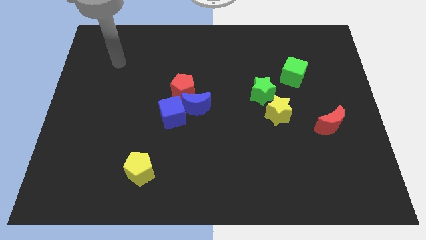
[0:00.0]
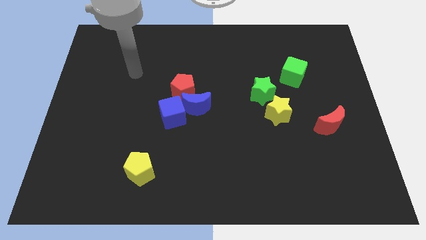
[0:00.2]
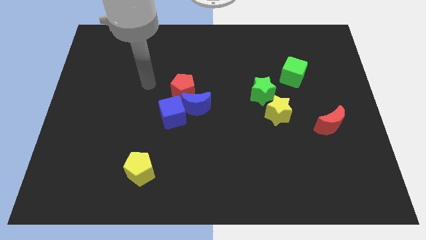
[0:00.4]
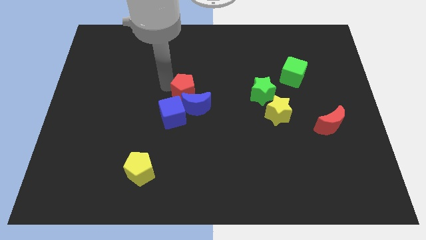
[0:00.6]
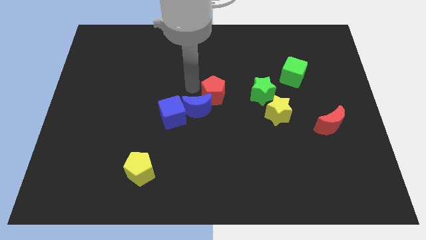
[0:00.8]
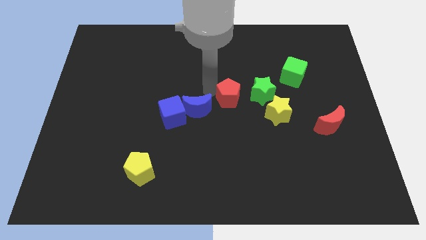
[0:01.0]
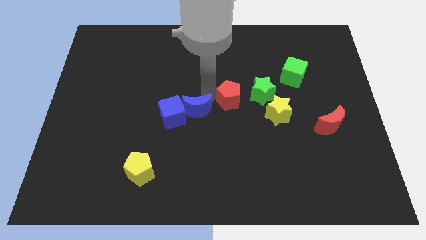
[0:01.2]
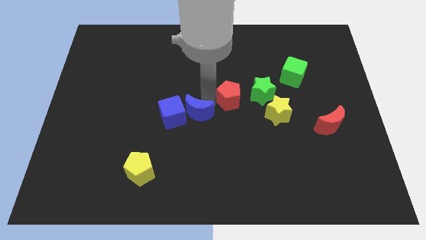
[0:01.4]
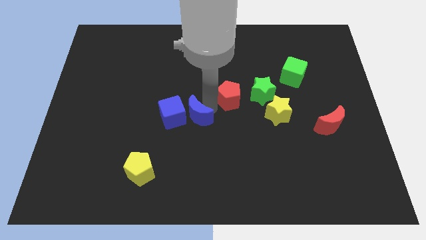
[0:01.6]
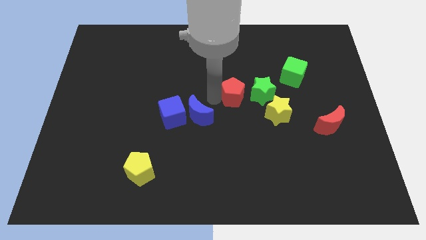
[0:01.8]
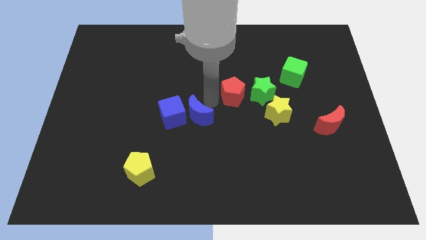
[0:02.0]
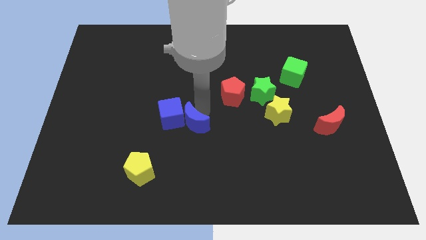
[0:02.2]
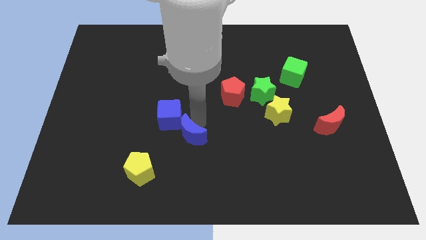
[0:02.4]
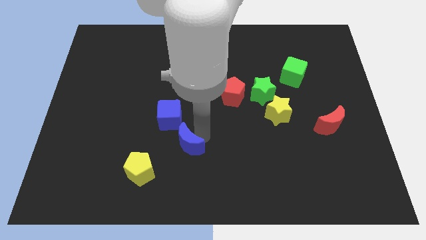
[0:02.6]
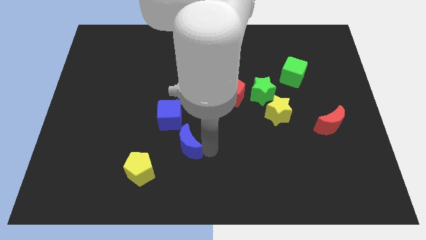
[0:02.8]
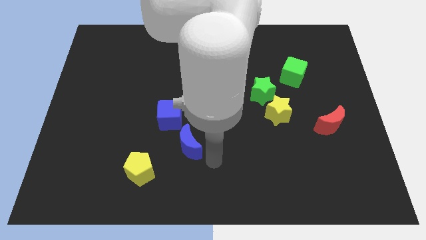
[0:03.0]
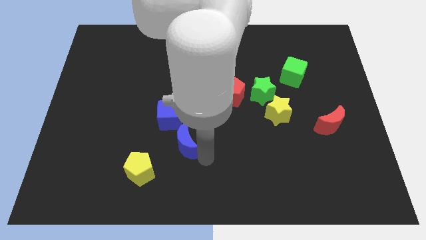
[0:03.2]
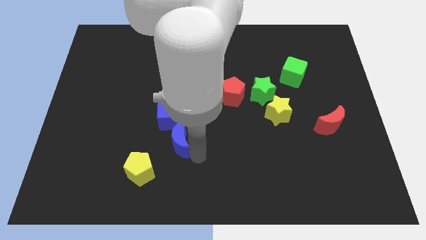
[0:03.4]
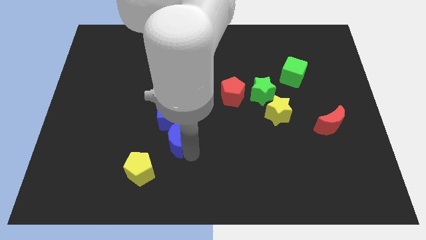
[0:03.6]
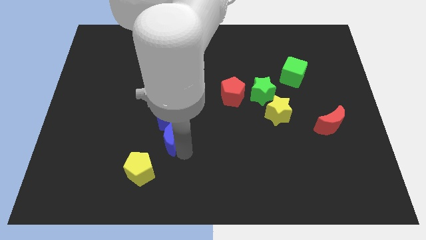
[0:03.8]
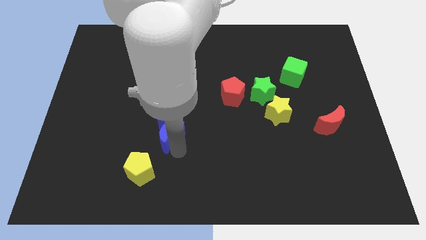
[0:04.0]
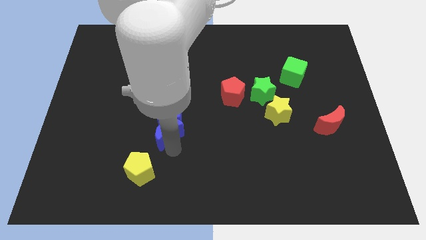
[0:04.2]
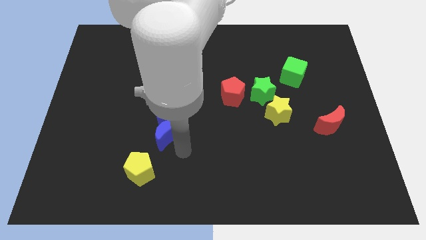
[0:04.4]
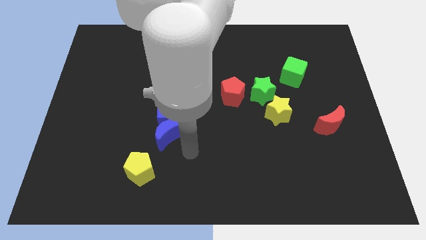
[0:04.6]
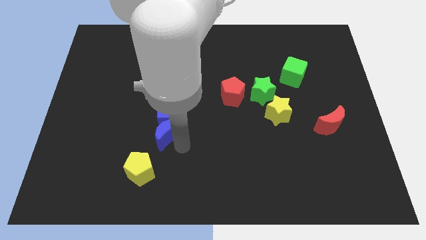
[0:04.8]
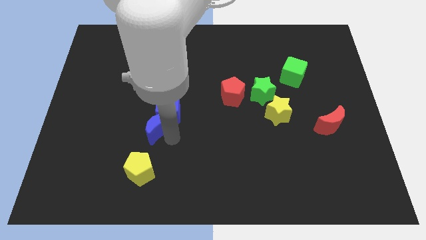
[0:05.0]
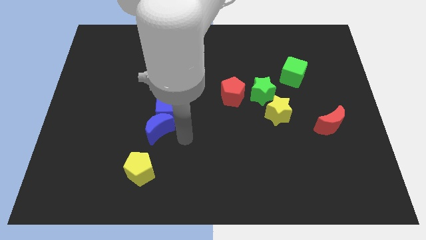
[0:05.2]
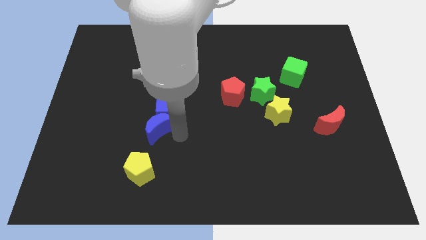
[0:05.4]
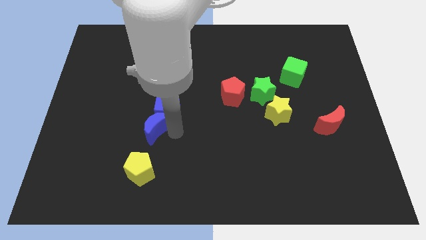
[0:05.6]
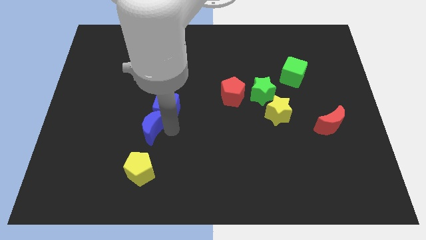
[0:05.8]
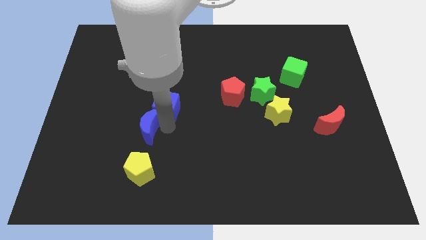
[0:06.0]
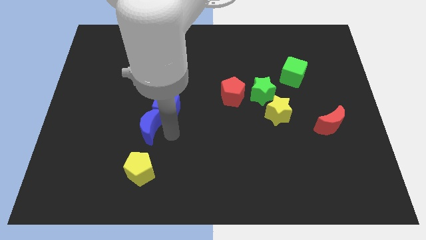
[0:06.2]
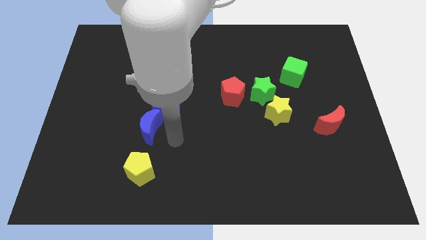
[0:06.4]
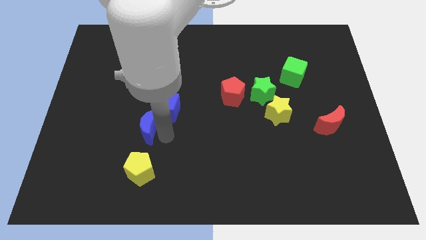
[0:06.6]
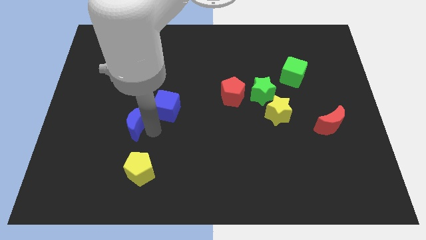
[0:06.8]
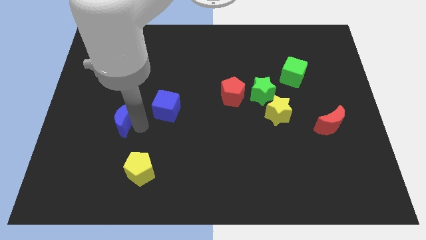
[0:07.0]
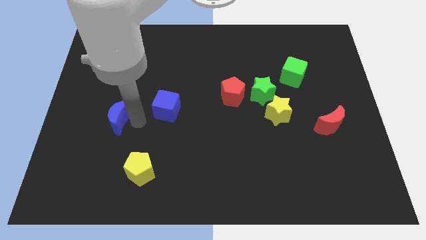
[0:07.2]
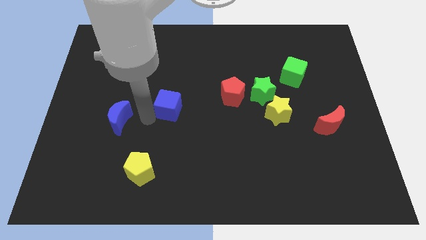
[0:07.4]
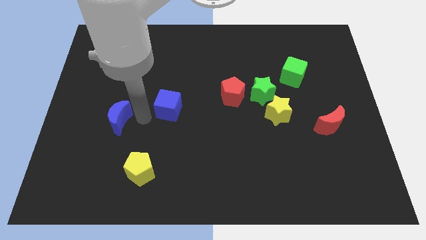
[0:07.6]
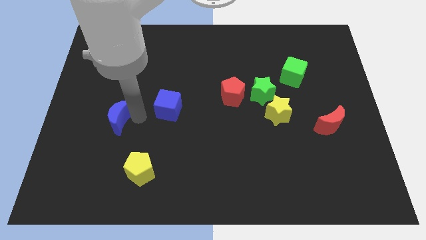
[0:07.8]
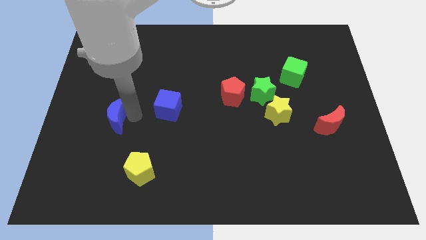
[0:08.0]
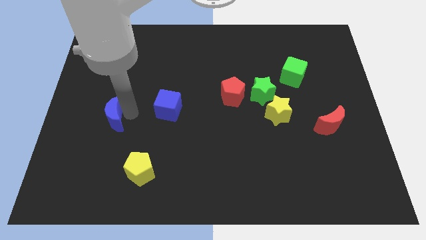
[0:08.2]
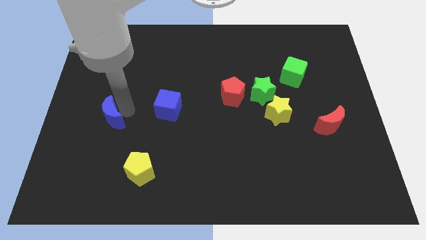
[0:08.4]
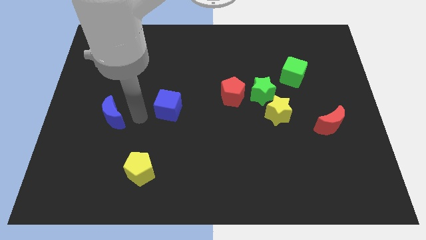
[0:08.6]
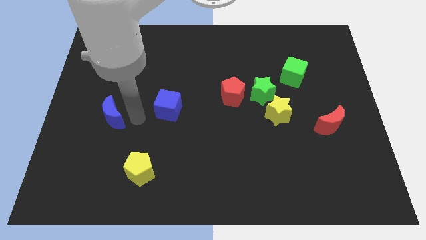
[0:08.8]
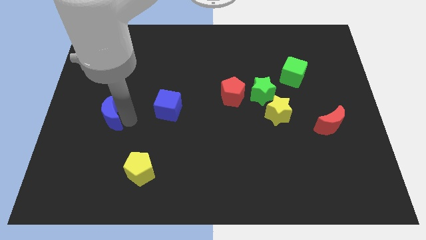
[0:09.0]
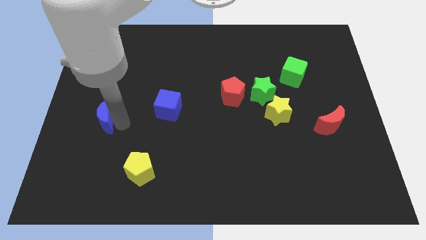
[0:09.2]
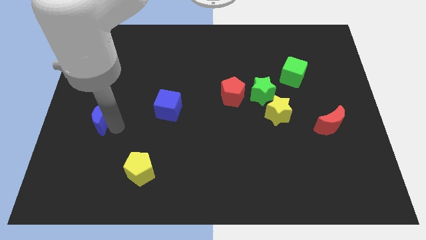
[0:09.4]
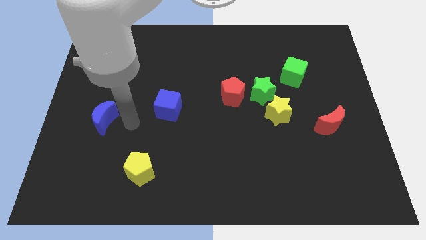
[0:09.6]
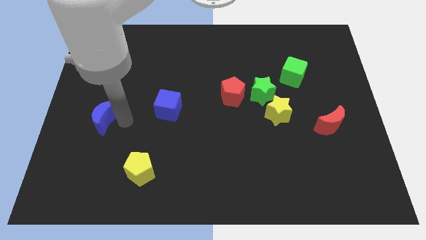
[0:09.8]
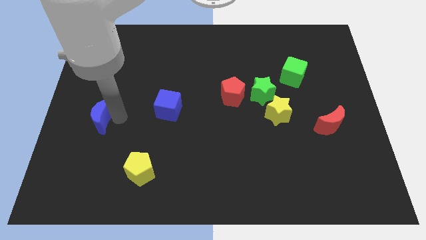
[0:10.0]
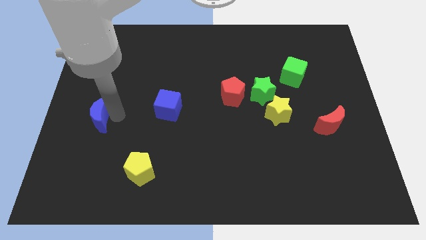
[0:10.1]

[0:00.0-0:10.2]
put the blue moon to the center left

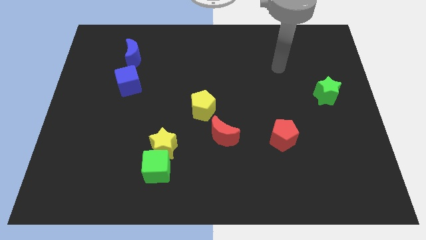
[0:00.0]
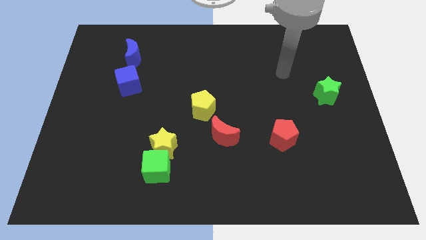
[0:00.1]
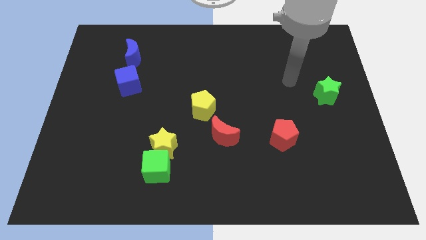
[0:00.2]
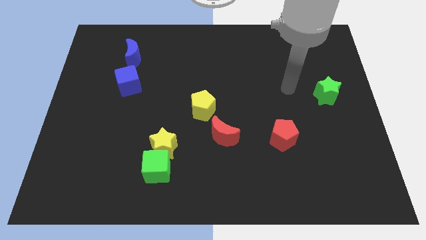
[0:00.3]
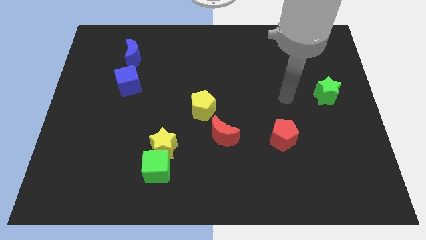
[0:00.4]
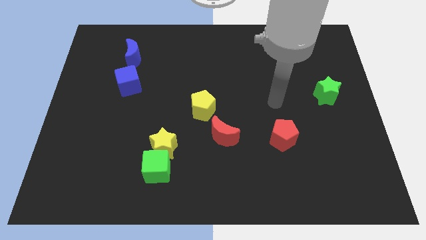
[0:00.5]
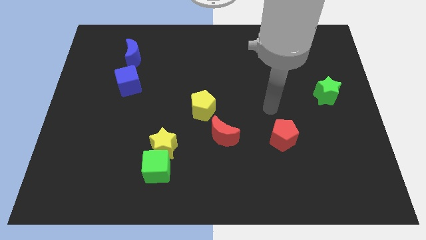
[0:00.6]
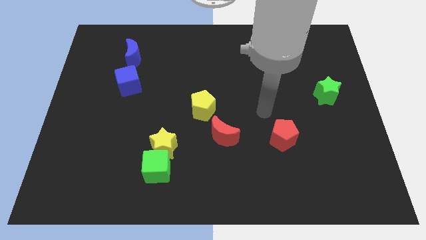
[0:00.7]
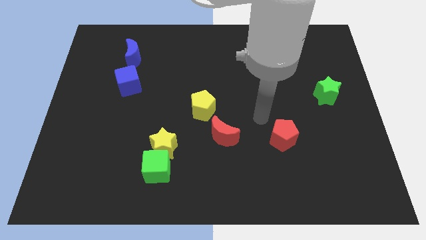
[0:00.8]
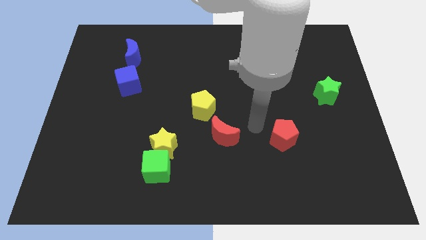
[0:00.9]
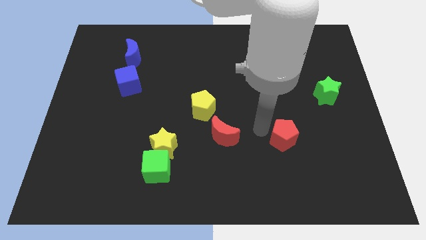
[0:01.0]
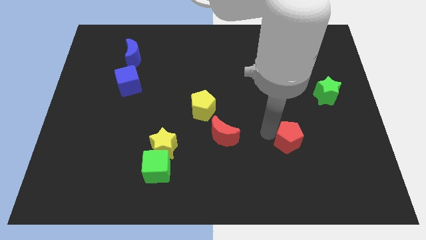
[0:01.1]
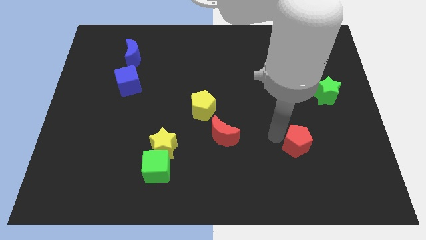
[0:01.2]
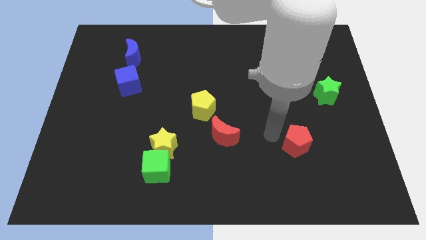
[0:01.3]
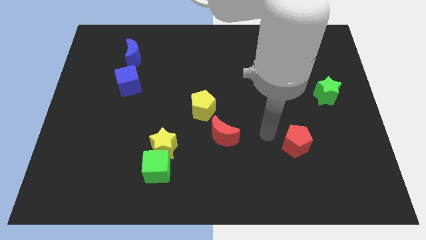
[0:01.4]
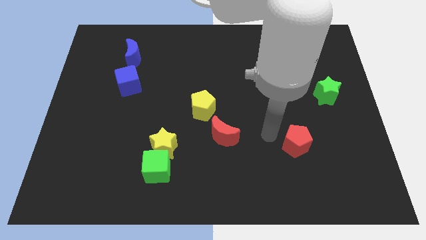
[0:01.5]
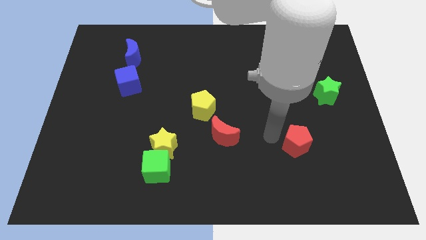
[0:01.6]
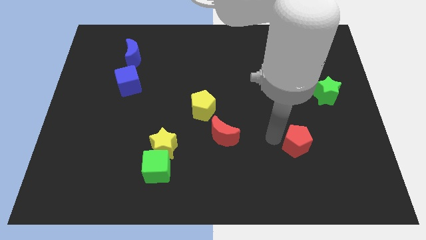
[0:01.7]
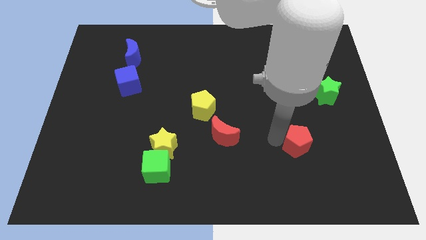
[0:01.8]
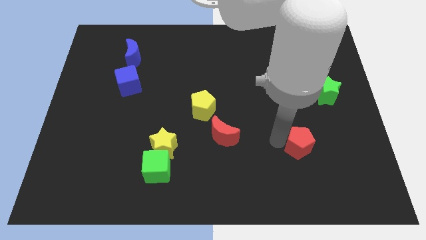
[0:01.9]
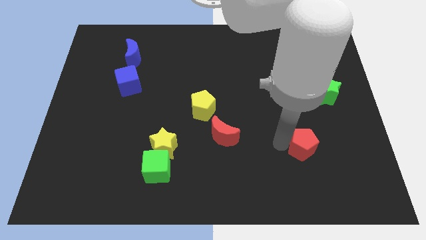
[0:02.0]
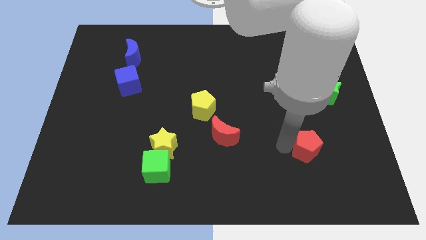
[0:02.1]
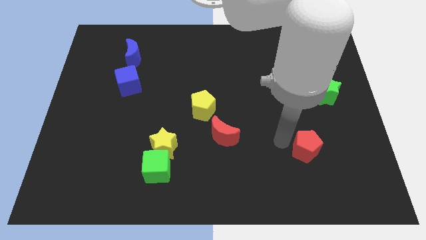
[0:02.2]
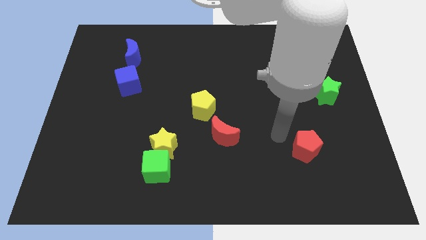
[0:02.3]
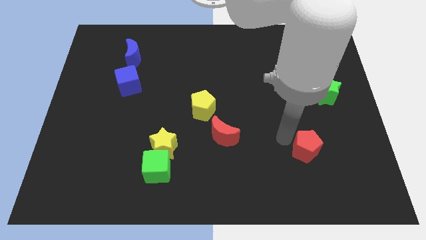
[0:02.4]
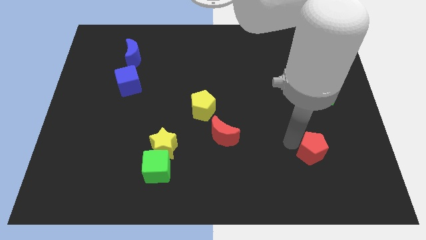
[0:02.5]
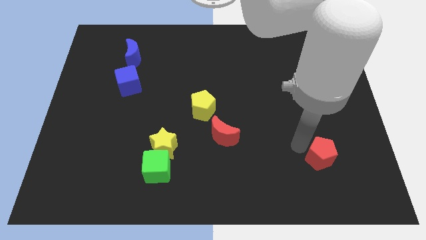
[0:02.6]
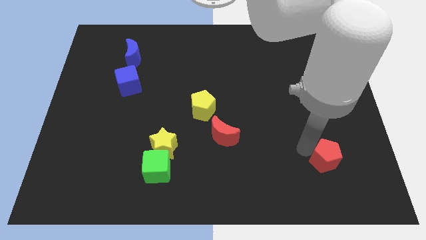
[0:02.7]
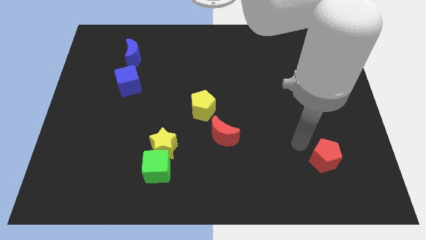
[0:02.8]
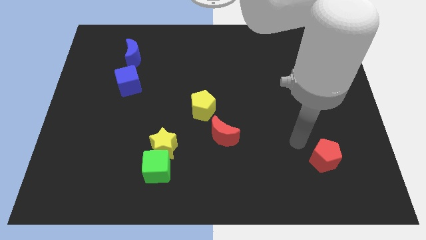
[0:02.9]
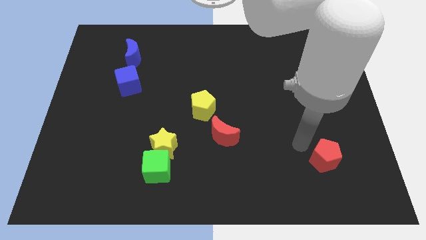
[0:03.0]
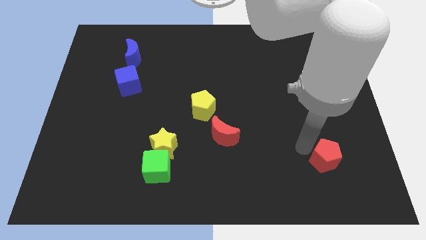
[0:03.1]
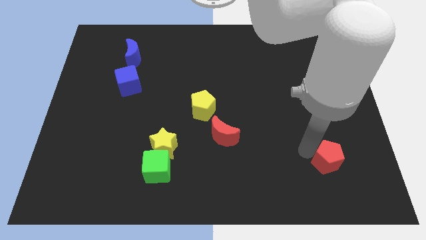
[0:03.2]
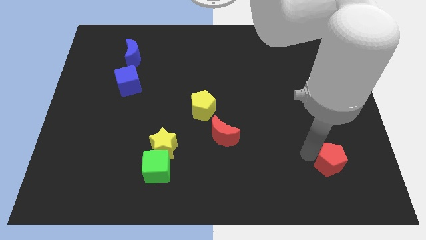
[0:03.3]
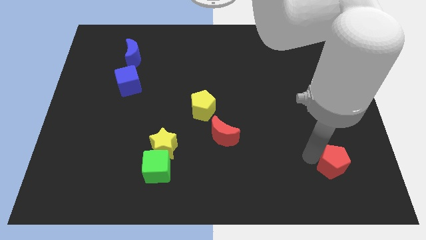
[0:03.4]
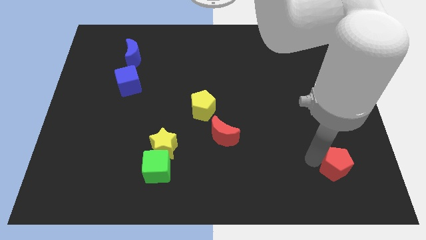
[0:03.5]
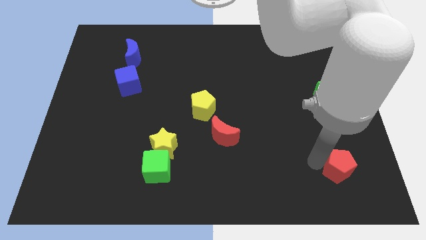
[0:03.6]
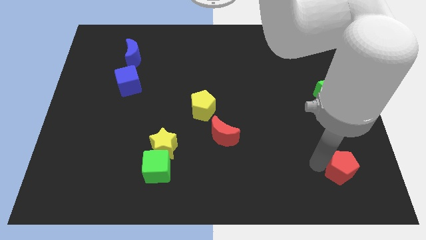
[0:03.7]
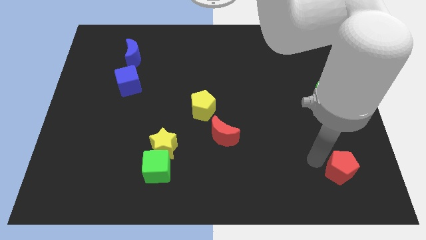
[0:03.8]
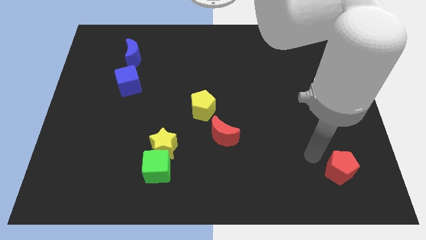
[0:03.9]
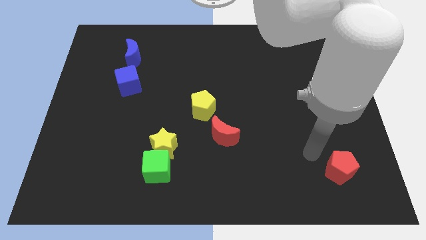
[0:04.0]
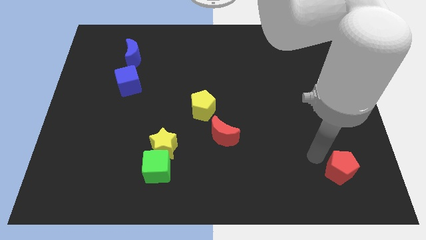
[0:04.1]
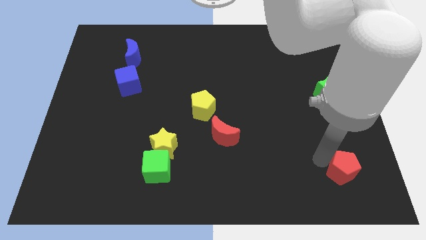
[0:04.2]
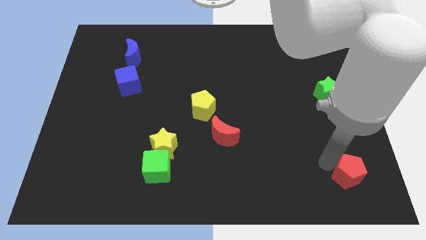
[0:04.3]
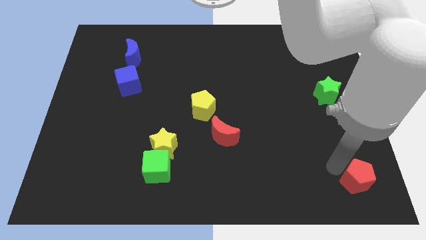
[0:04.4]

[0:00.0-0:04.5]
slide the red pentagon to the lower right corner
